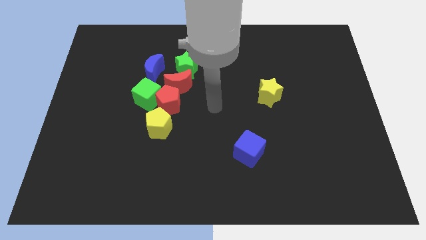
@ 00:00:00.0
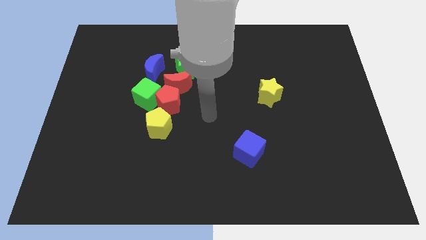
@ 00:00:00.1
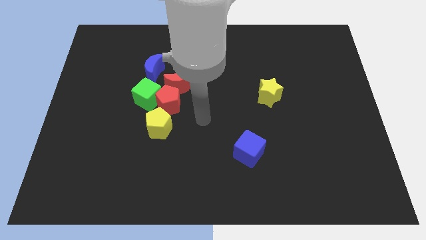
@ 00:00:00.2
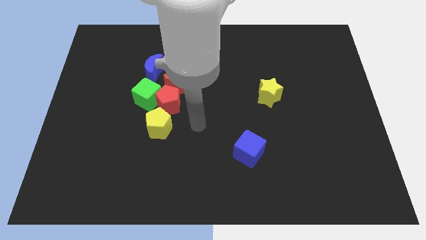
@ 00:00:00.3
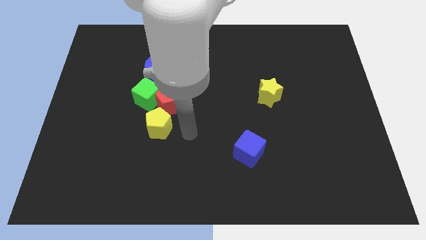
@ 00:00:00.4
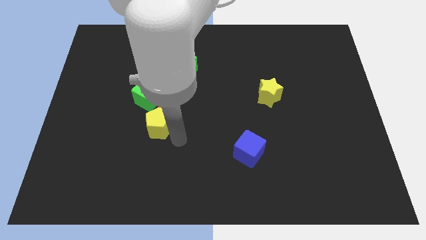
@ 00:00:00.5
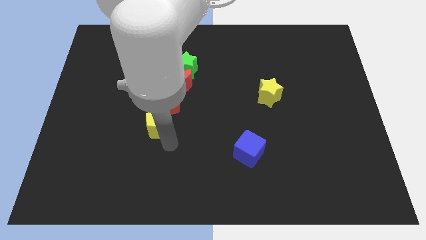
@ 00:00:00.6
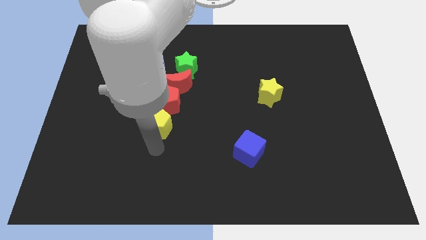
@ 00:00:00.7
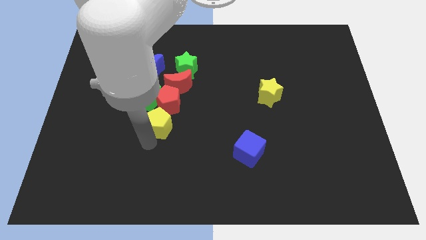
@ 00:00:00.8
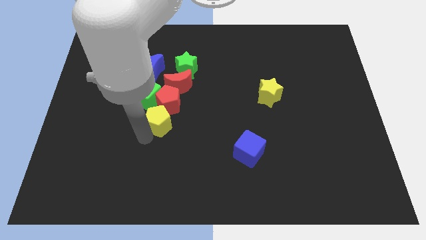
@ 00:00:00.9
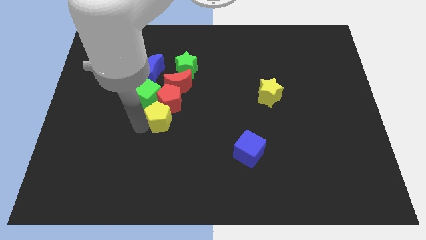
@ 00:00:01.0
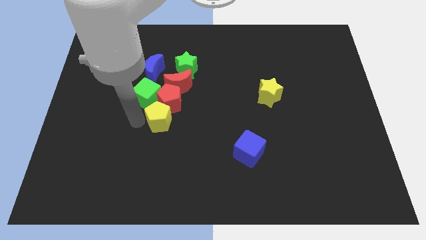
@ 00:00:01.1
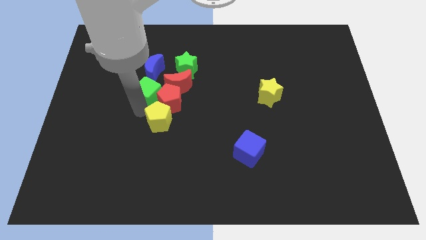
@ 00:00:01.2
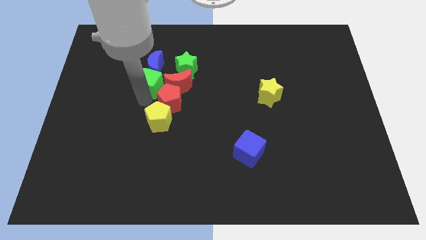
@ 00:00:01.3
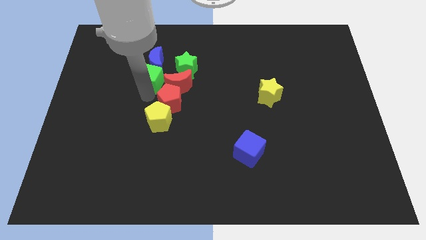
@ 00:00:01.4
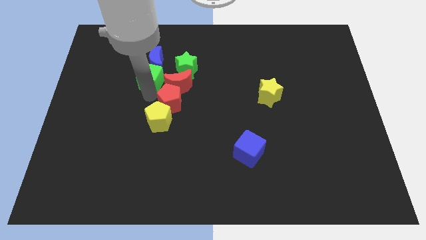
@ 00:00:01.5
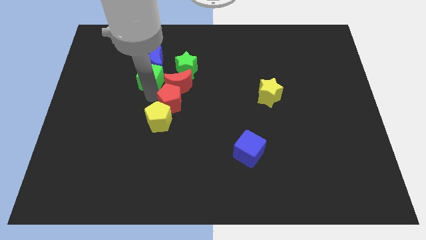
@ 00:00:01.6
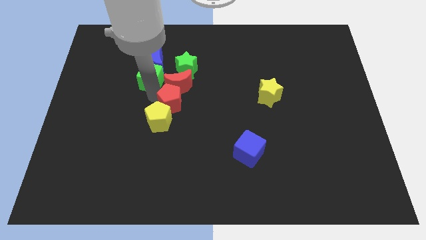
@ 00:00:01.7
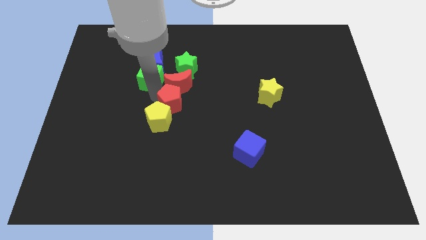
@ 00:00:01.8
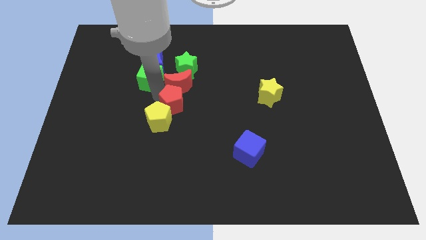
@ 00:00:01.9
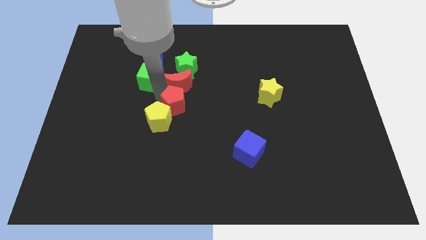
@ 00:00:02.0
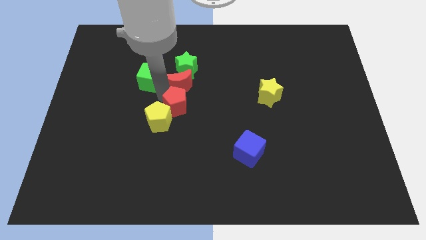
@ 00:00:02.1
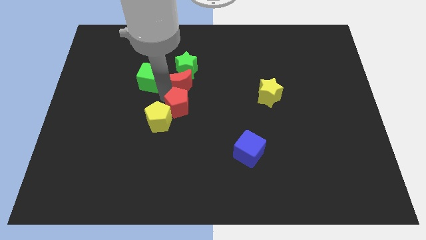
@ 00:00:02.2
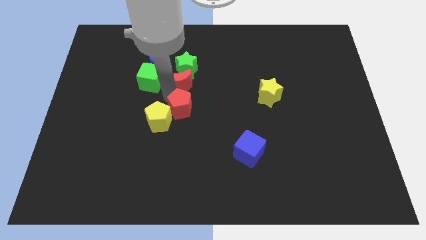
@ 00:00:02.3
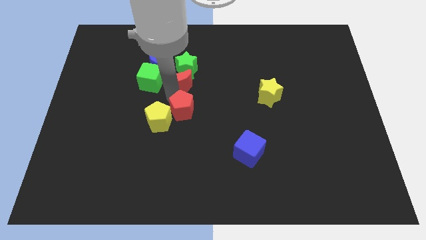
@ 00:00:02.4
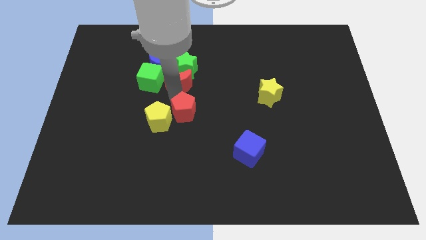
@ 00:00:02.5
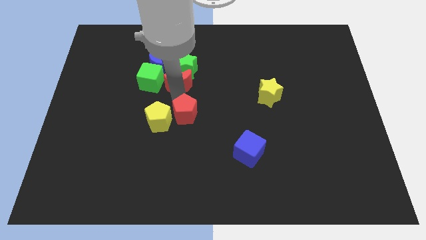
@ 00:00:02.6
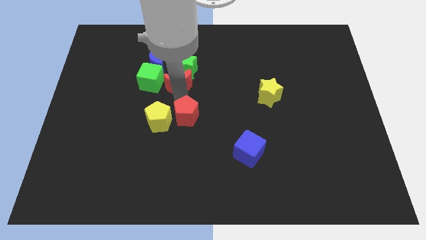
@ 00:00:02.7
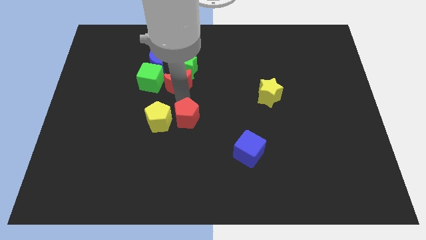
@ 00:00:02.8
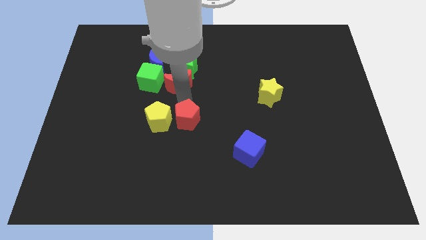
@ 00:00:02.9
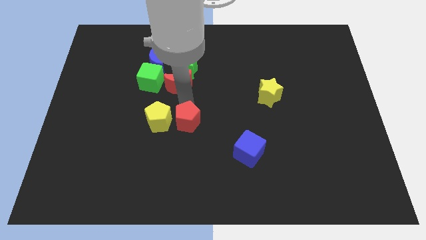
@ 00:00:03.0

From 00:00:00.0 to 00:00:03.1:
pull the red pentagon apart from the group of blocks

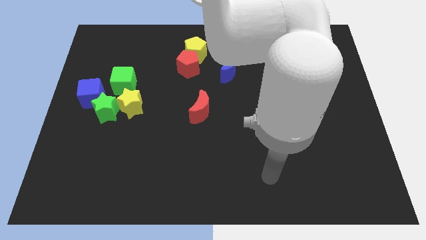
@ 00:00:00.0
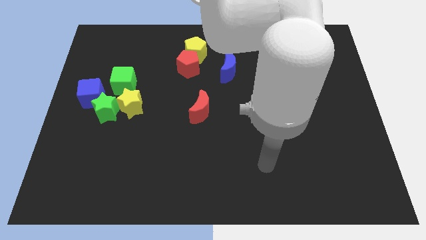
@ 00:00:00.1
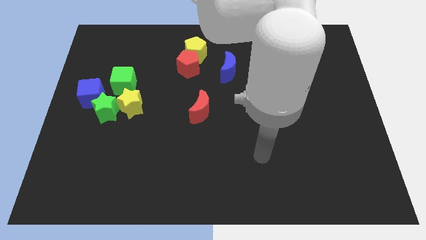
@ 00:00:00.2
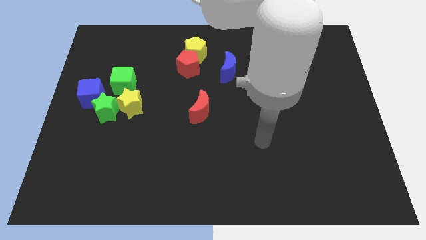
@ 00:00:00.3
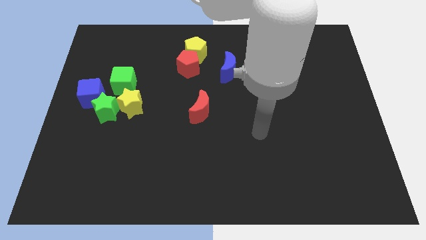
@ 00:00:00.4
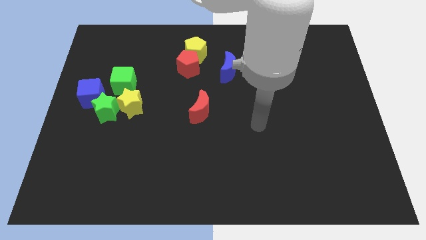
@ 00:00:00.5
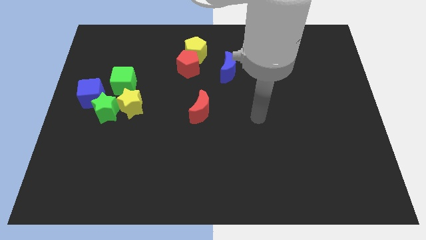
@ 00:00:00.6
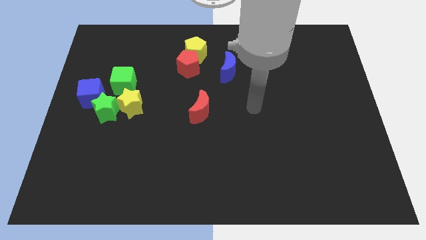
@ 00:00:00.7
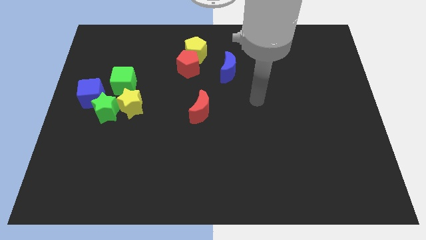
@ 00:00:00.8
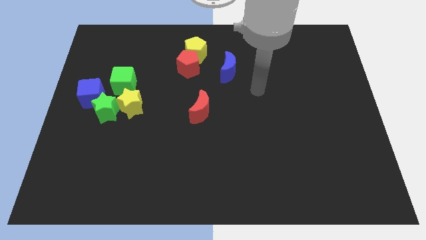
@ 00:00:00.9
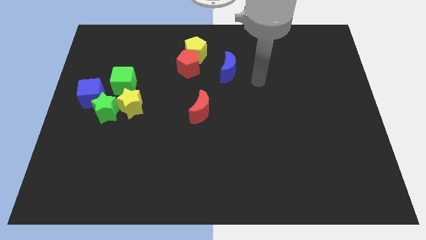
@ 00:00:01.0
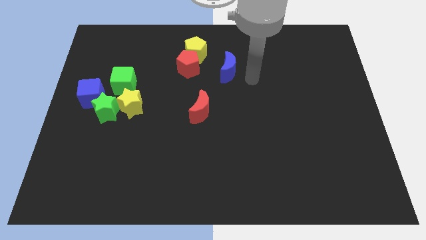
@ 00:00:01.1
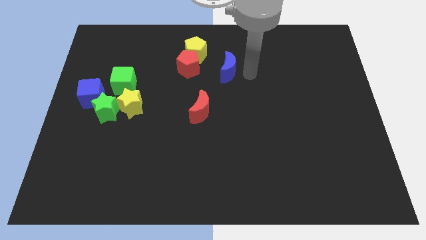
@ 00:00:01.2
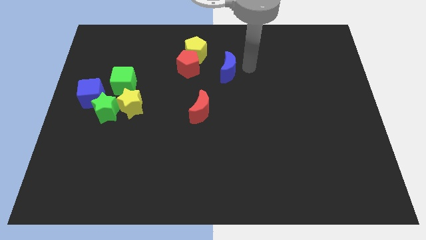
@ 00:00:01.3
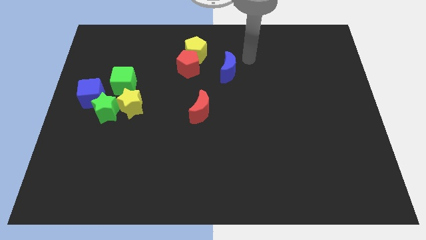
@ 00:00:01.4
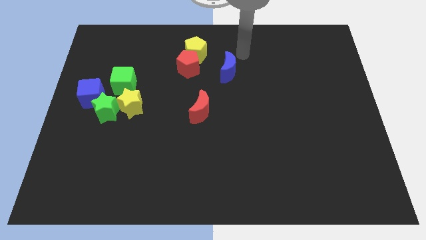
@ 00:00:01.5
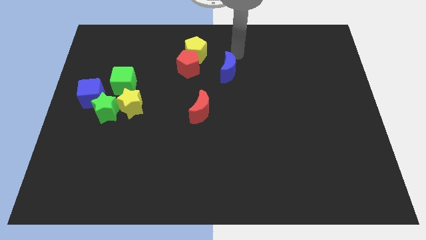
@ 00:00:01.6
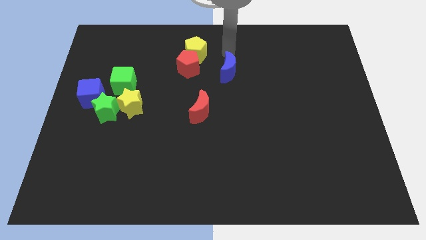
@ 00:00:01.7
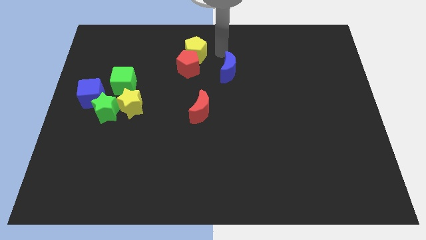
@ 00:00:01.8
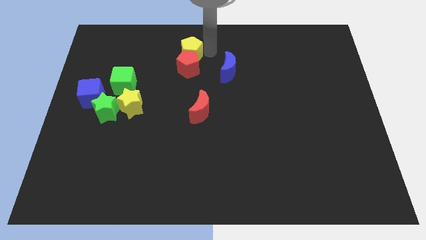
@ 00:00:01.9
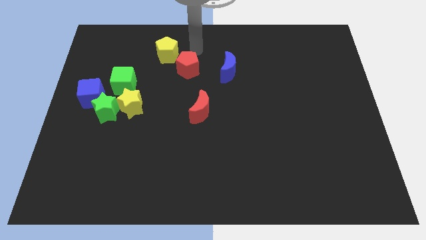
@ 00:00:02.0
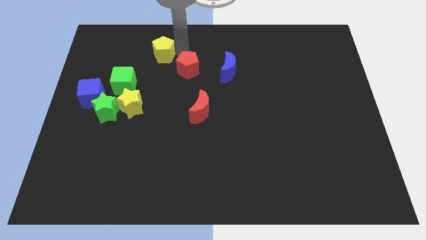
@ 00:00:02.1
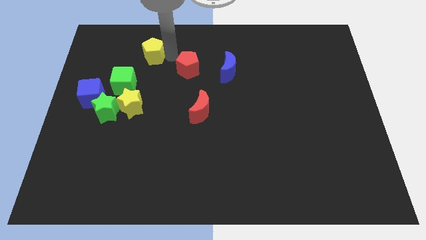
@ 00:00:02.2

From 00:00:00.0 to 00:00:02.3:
move the red pentagon away from the yellow pentagon

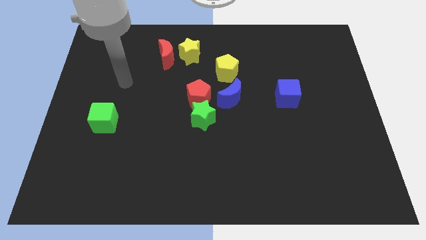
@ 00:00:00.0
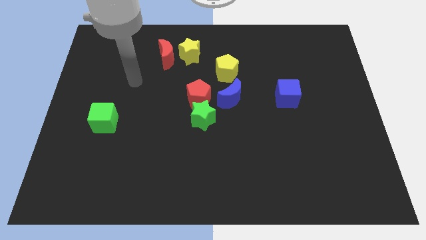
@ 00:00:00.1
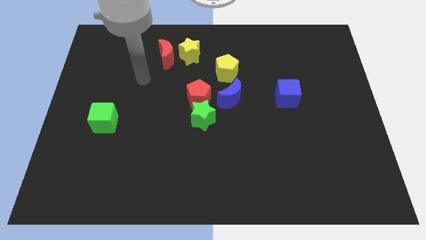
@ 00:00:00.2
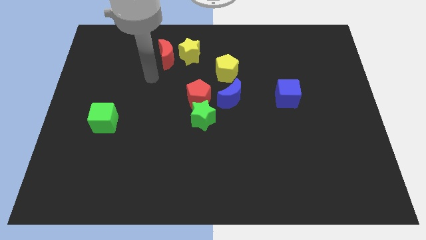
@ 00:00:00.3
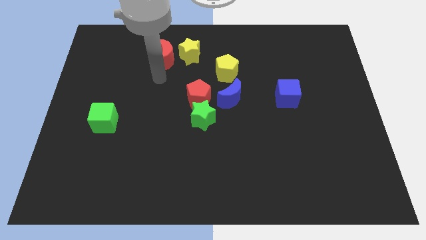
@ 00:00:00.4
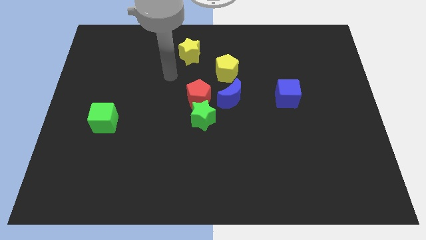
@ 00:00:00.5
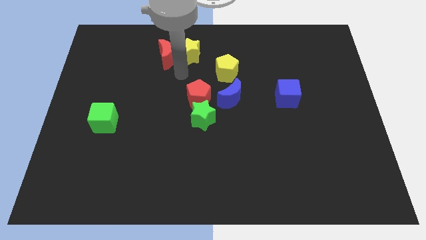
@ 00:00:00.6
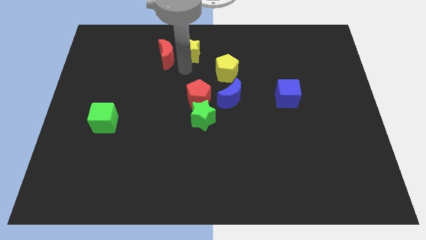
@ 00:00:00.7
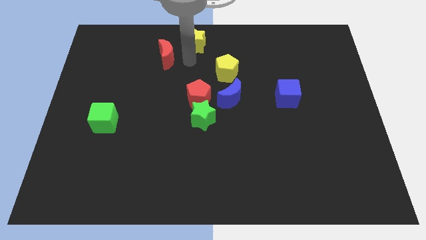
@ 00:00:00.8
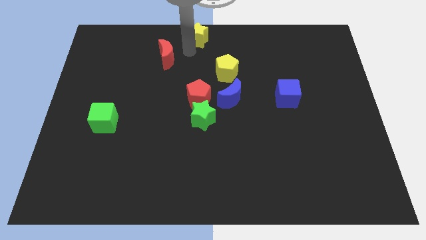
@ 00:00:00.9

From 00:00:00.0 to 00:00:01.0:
move the red moon away from the yellow star

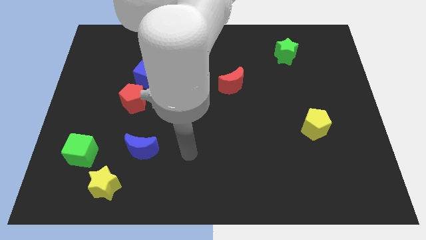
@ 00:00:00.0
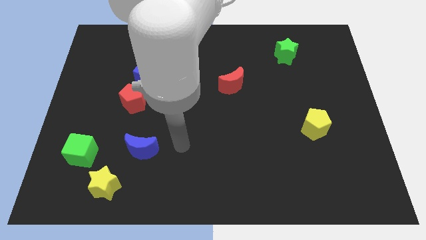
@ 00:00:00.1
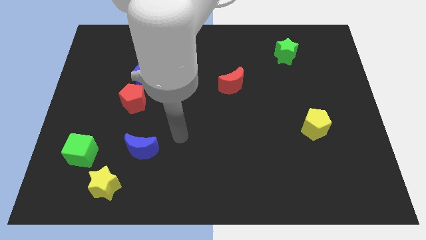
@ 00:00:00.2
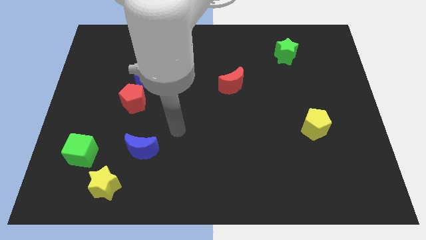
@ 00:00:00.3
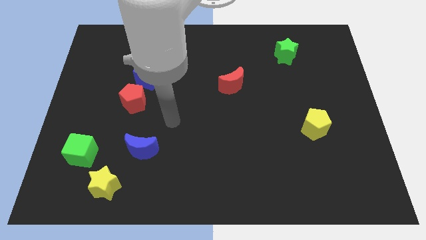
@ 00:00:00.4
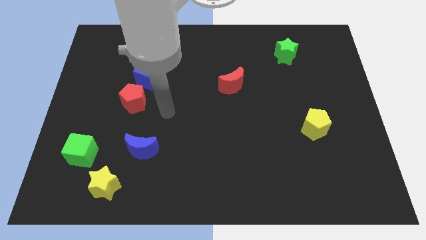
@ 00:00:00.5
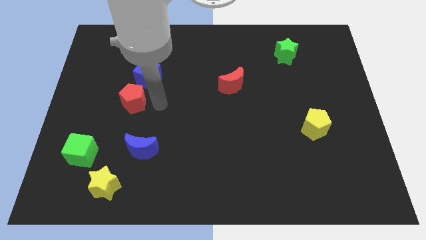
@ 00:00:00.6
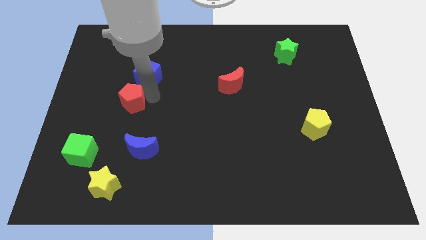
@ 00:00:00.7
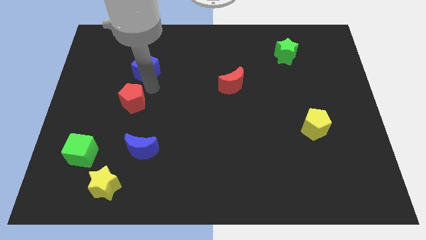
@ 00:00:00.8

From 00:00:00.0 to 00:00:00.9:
separate the red pentagon from the blue cube

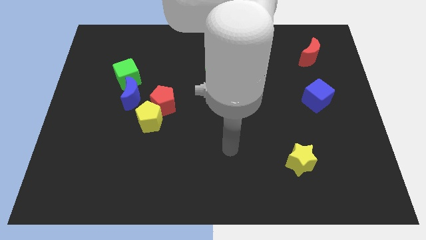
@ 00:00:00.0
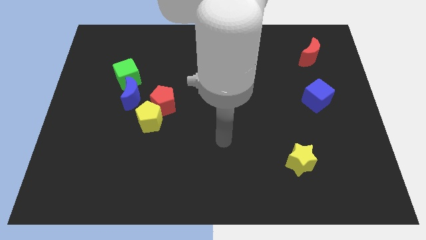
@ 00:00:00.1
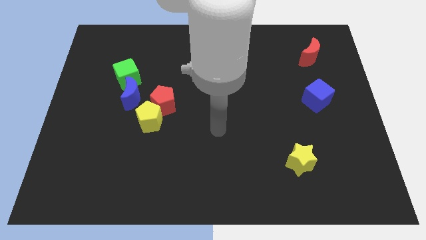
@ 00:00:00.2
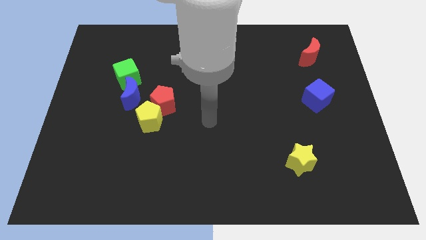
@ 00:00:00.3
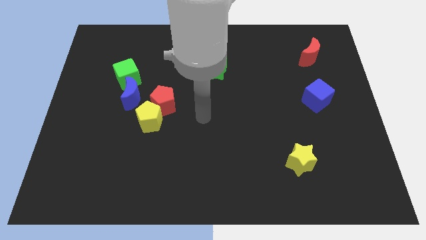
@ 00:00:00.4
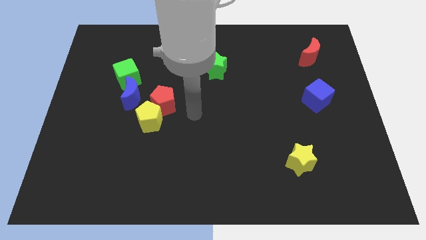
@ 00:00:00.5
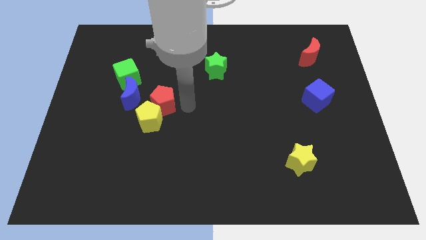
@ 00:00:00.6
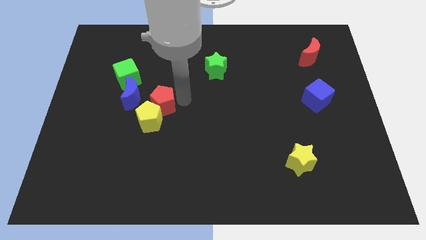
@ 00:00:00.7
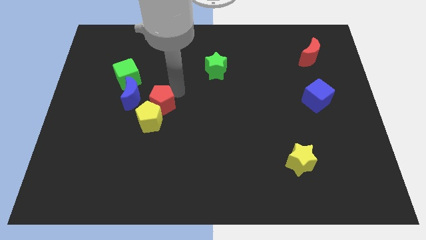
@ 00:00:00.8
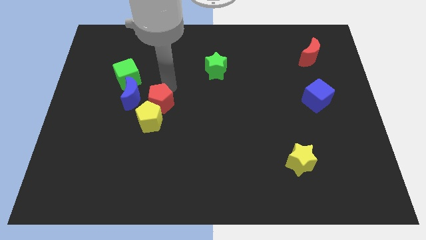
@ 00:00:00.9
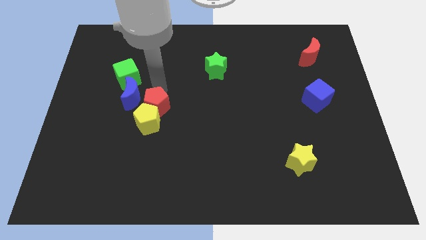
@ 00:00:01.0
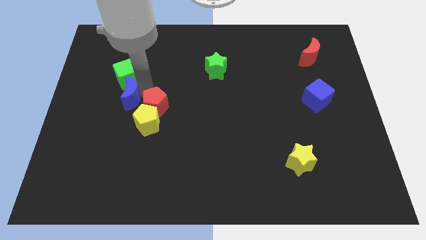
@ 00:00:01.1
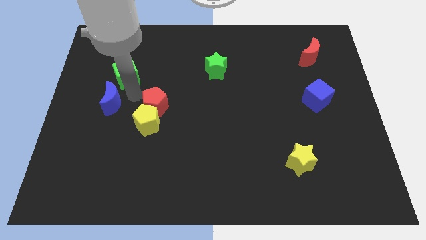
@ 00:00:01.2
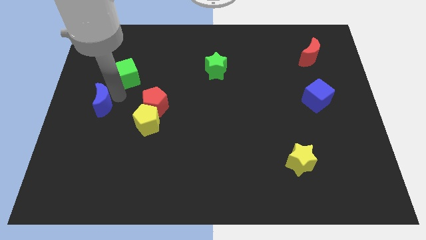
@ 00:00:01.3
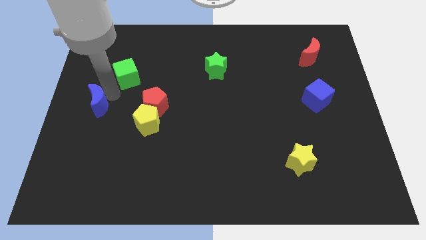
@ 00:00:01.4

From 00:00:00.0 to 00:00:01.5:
separate the green cube from the blue moon

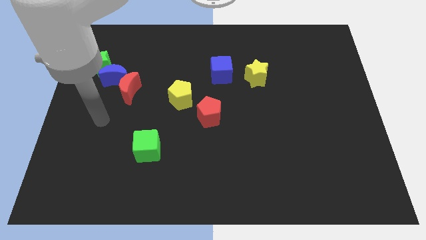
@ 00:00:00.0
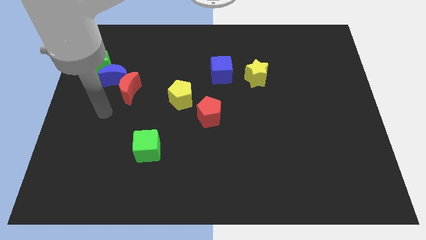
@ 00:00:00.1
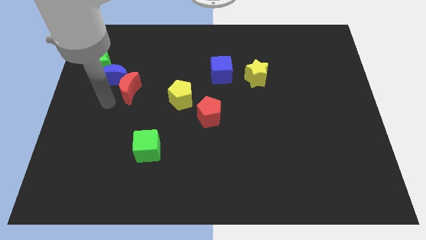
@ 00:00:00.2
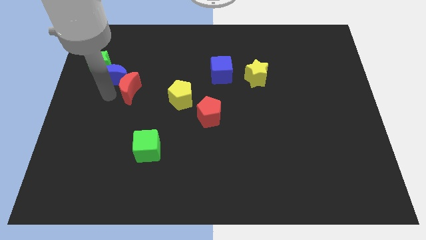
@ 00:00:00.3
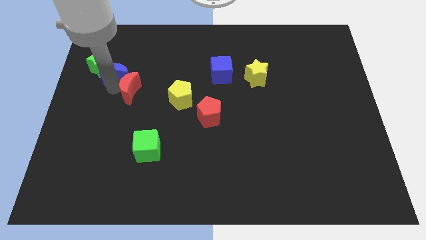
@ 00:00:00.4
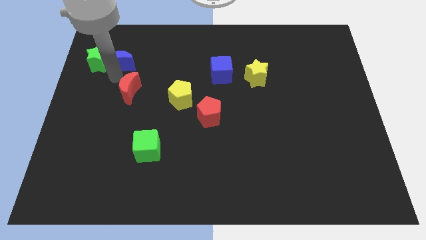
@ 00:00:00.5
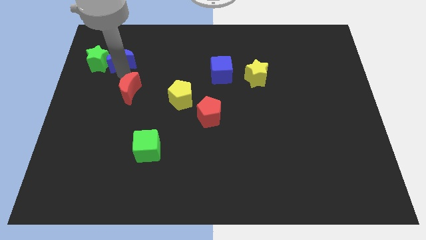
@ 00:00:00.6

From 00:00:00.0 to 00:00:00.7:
pull the red moon apart from the blue moon
